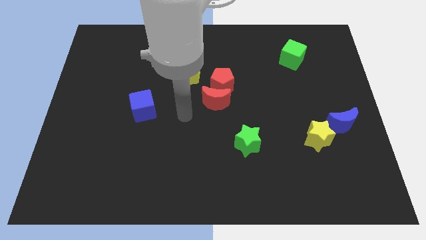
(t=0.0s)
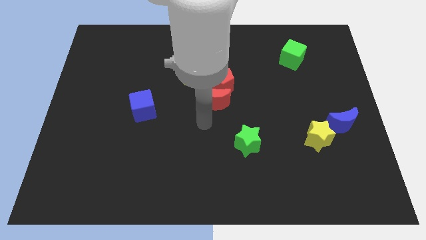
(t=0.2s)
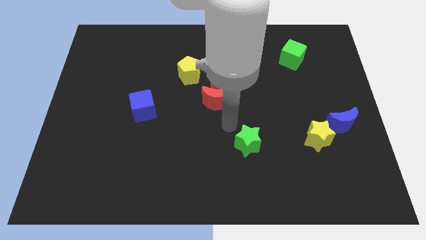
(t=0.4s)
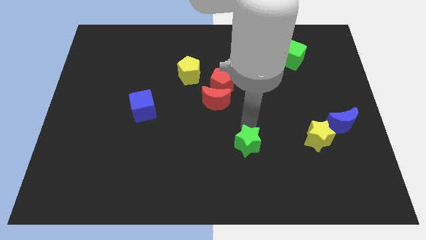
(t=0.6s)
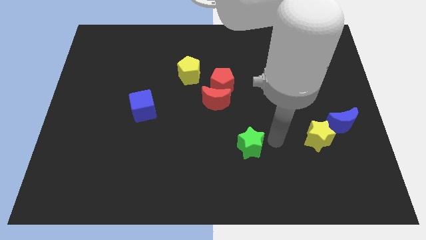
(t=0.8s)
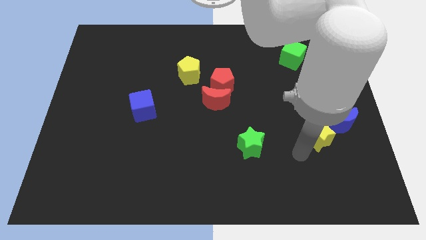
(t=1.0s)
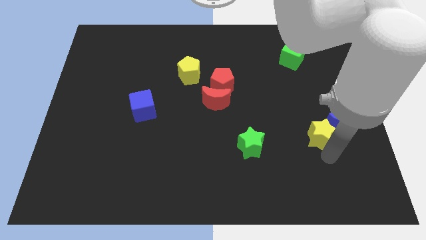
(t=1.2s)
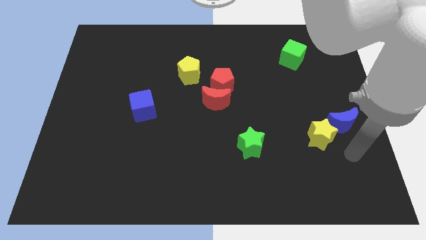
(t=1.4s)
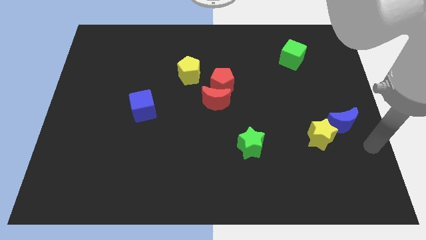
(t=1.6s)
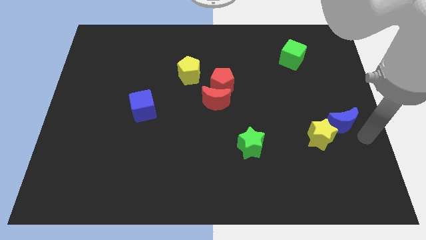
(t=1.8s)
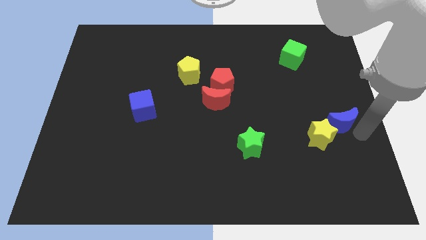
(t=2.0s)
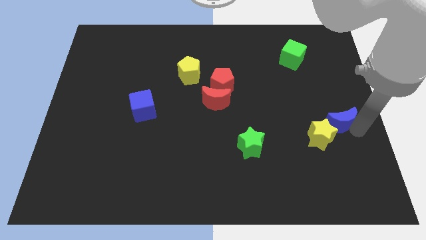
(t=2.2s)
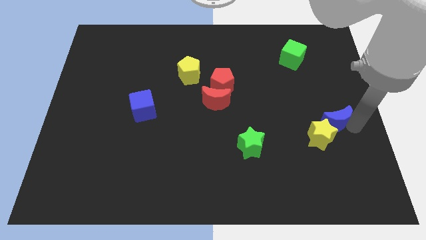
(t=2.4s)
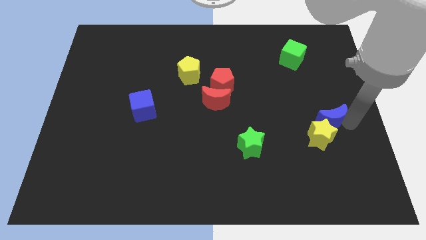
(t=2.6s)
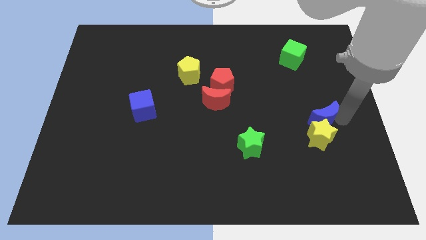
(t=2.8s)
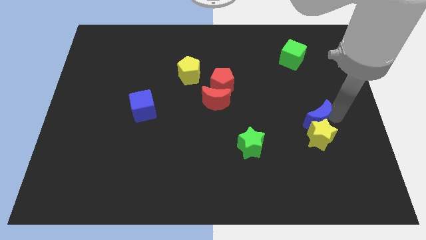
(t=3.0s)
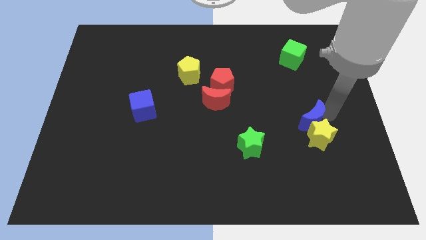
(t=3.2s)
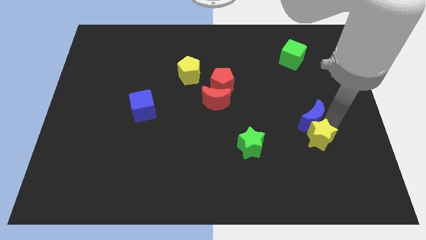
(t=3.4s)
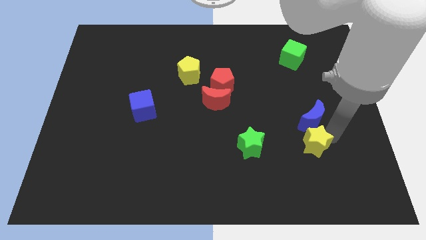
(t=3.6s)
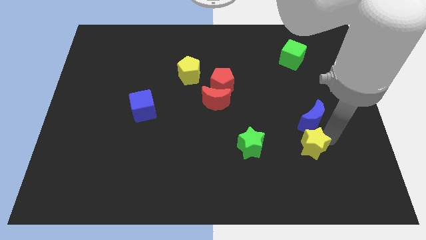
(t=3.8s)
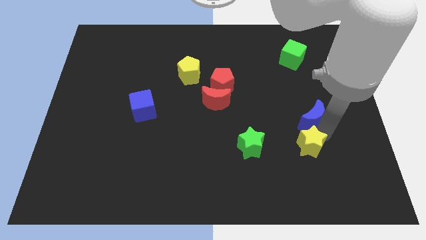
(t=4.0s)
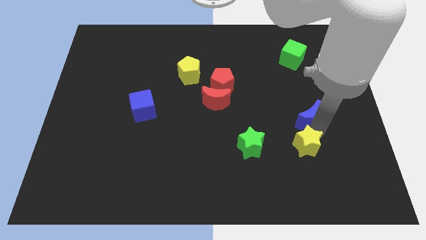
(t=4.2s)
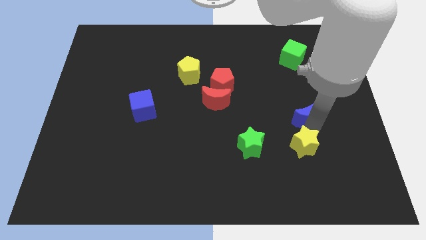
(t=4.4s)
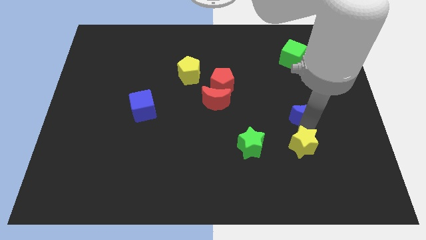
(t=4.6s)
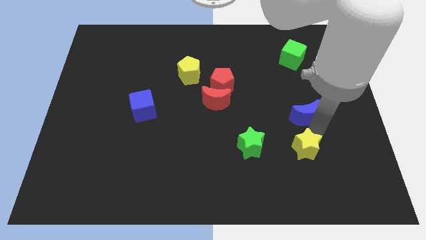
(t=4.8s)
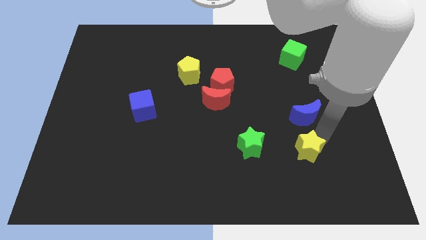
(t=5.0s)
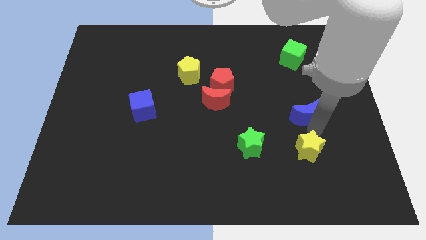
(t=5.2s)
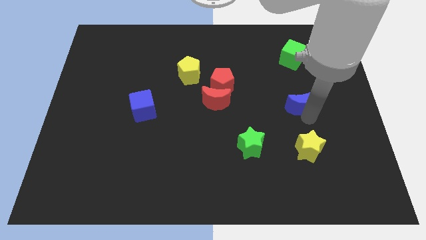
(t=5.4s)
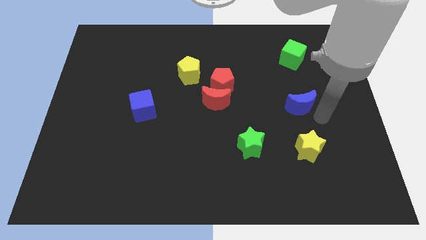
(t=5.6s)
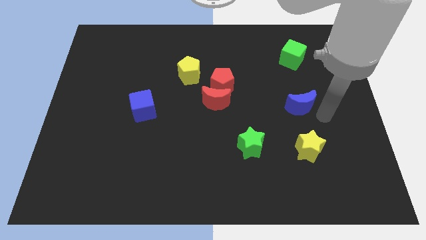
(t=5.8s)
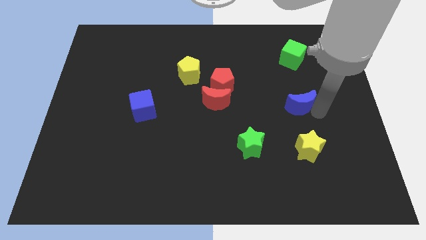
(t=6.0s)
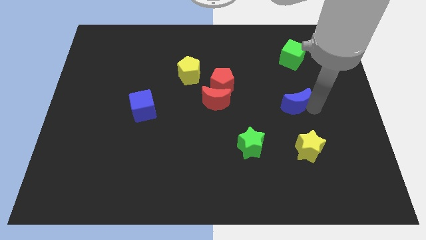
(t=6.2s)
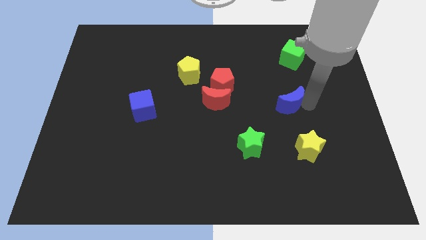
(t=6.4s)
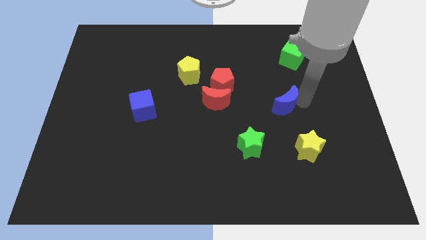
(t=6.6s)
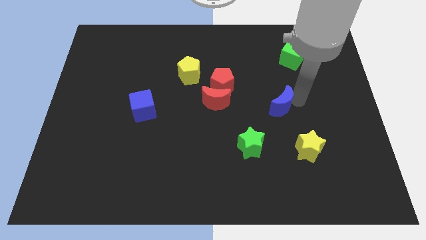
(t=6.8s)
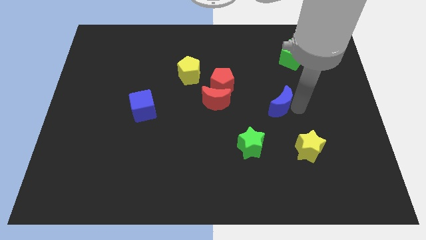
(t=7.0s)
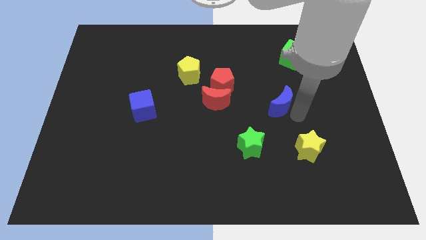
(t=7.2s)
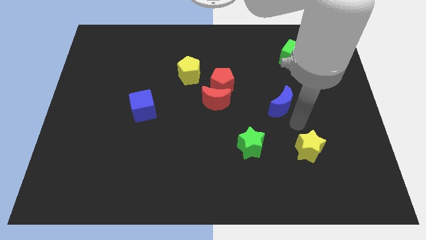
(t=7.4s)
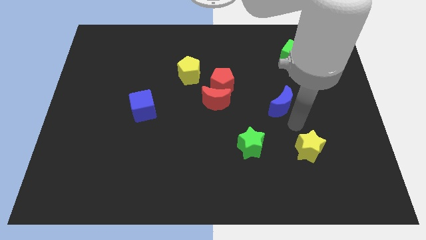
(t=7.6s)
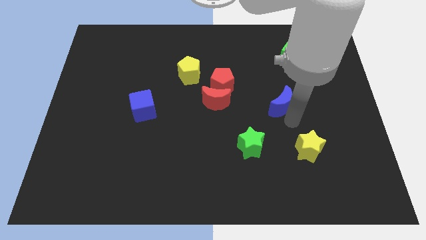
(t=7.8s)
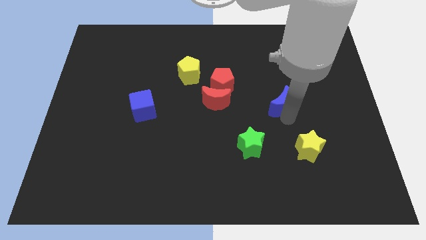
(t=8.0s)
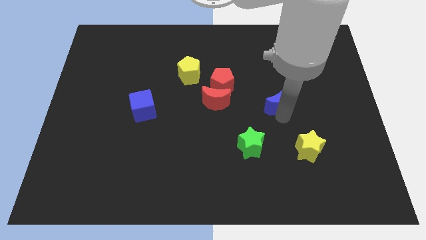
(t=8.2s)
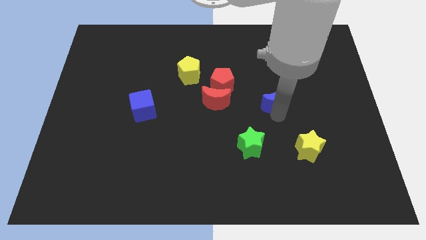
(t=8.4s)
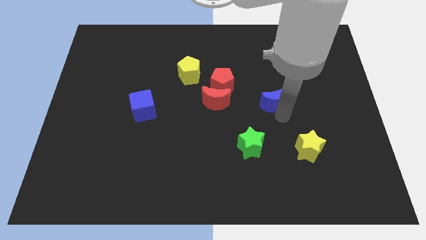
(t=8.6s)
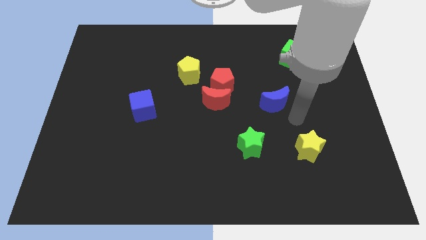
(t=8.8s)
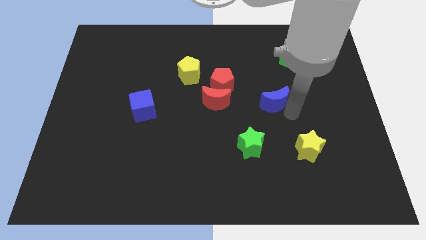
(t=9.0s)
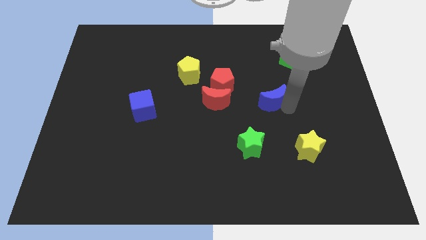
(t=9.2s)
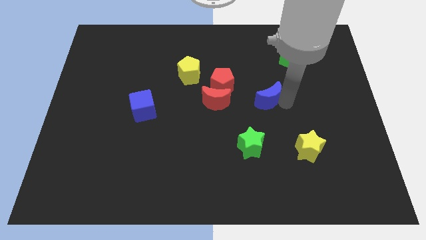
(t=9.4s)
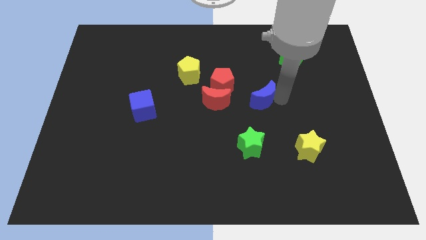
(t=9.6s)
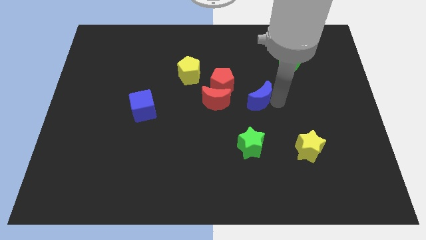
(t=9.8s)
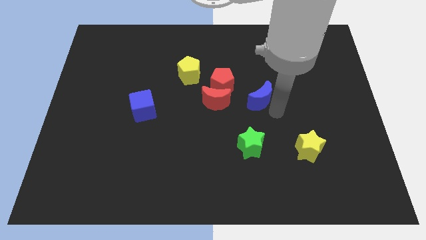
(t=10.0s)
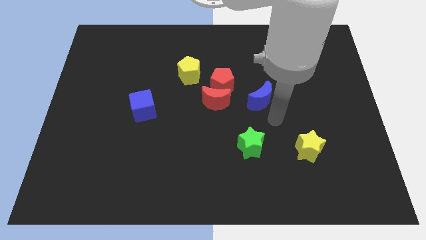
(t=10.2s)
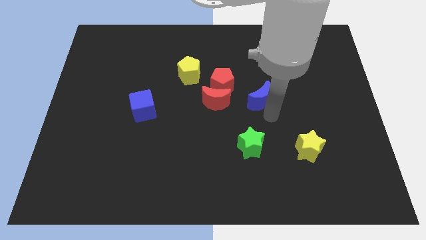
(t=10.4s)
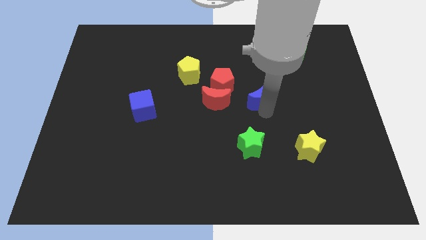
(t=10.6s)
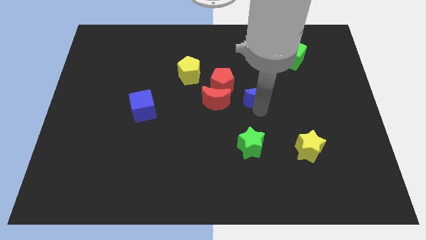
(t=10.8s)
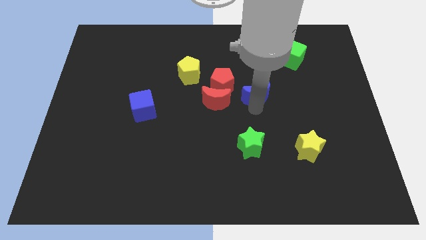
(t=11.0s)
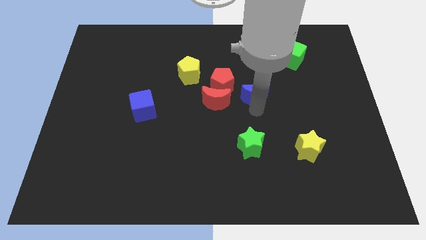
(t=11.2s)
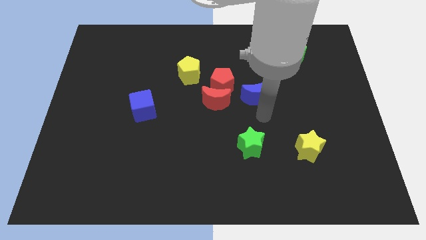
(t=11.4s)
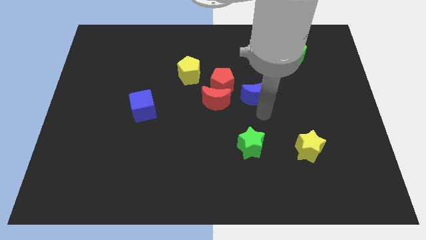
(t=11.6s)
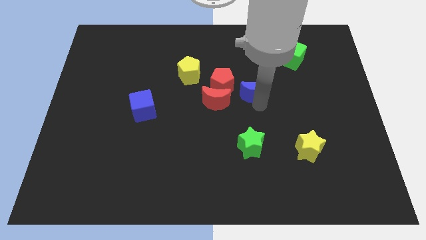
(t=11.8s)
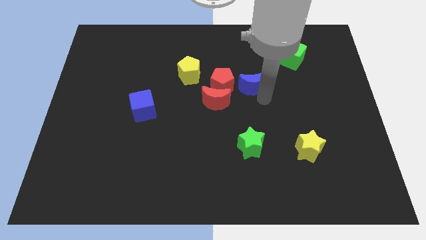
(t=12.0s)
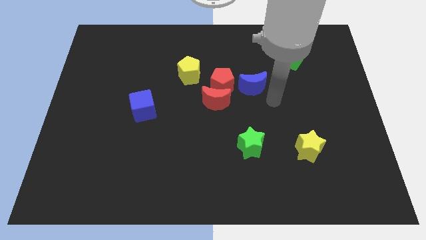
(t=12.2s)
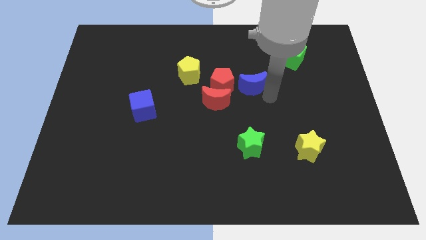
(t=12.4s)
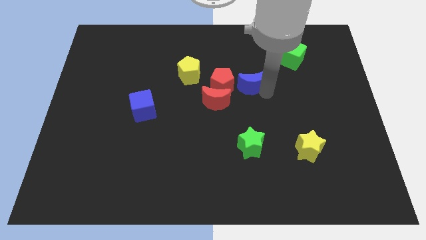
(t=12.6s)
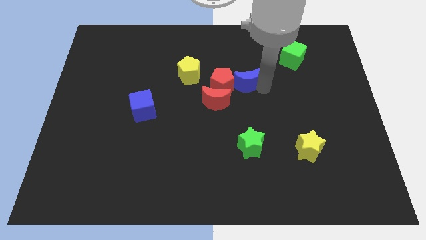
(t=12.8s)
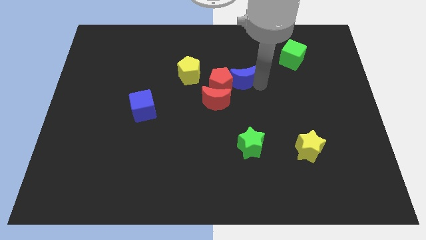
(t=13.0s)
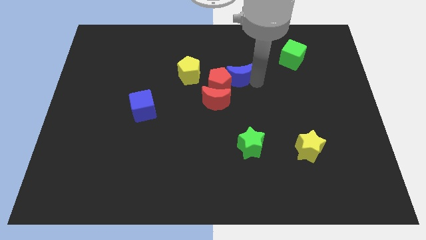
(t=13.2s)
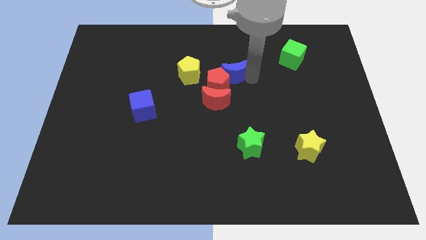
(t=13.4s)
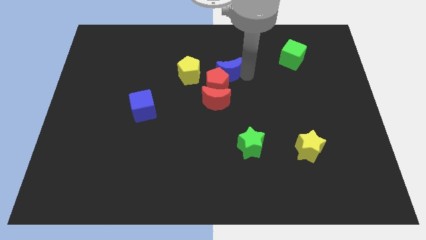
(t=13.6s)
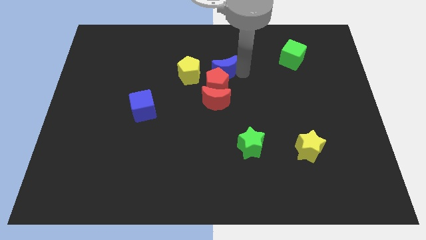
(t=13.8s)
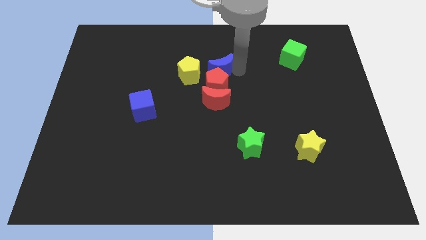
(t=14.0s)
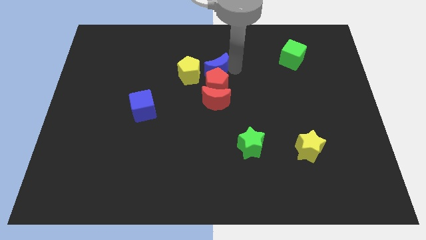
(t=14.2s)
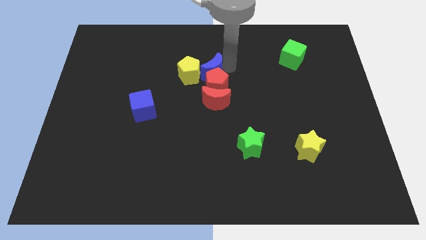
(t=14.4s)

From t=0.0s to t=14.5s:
put the blue moon close to the yellow pentagon

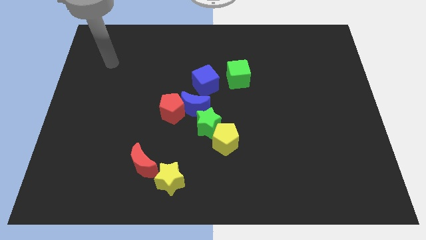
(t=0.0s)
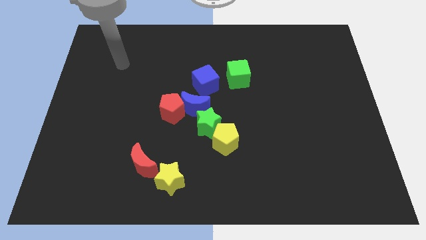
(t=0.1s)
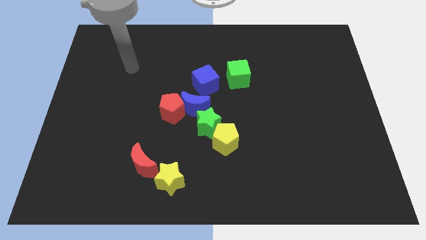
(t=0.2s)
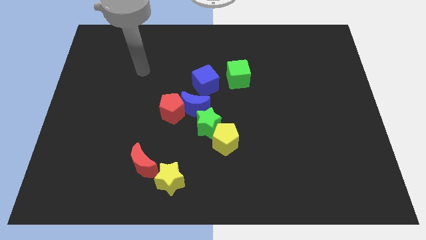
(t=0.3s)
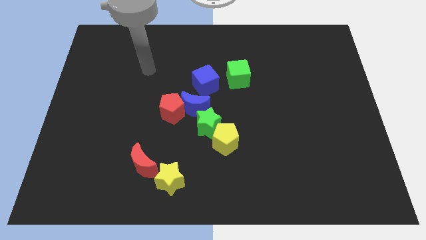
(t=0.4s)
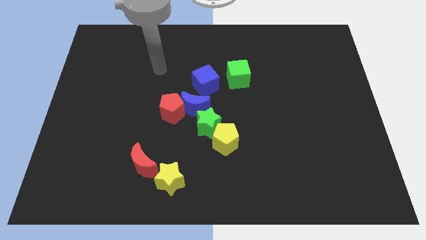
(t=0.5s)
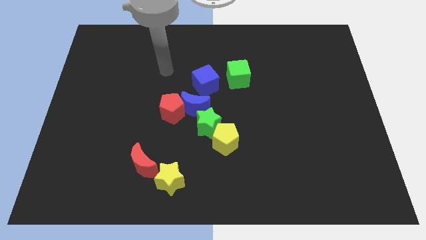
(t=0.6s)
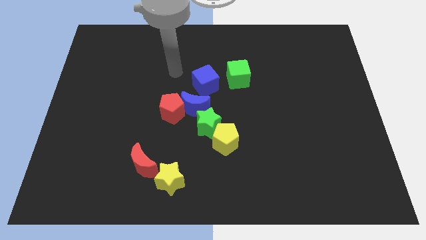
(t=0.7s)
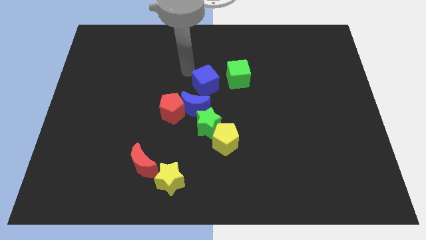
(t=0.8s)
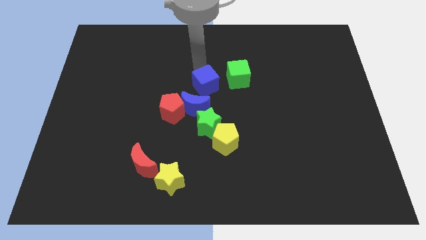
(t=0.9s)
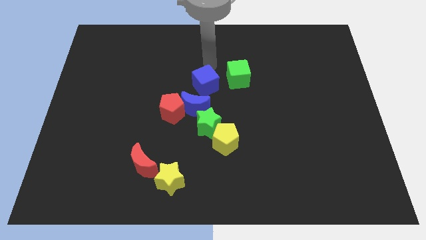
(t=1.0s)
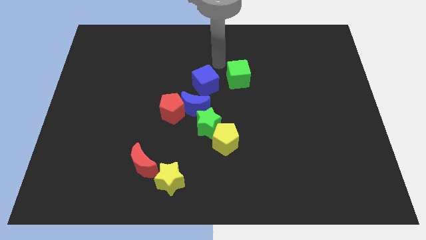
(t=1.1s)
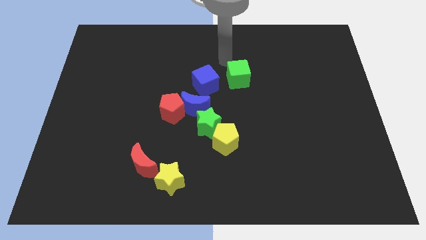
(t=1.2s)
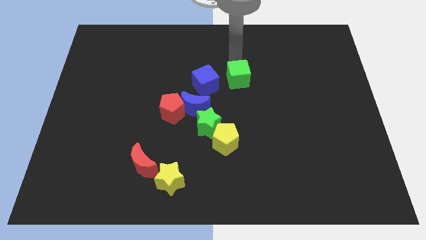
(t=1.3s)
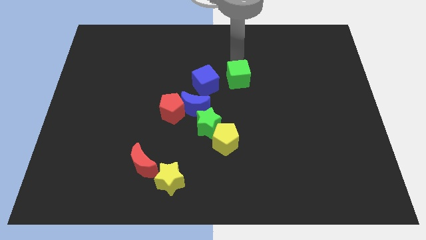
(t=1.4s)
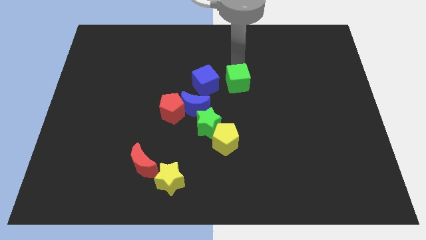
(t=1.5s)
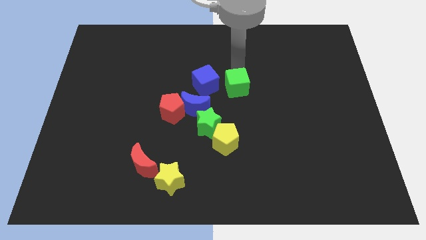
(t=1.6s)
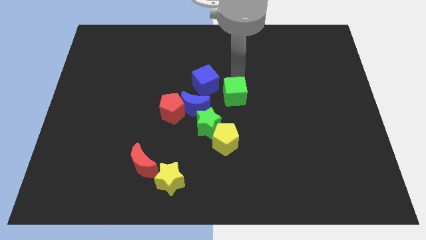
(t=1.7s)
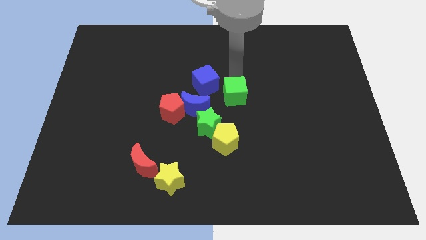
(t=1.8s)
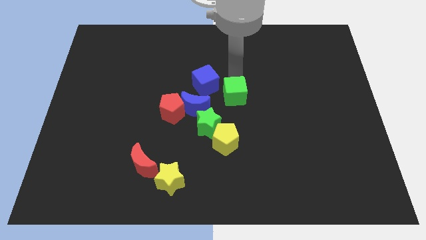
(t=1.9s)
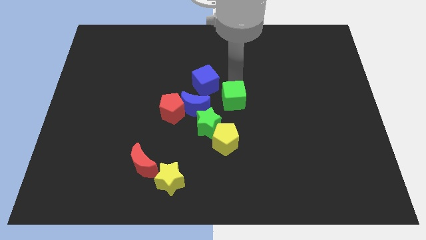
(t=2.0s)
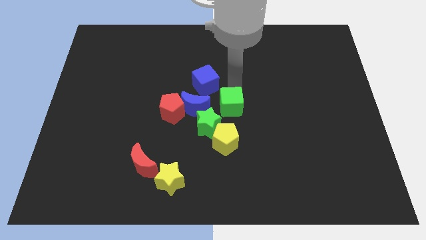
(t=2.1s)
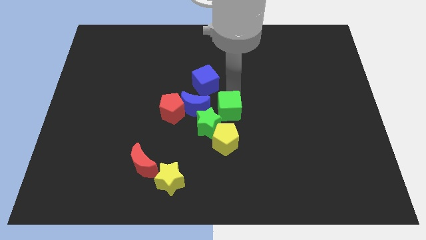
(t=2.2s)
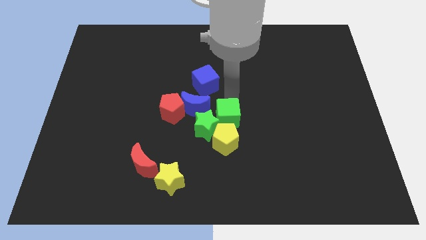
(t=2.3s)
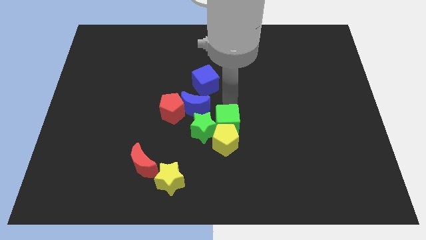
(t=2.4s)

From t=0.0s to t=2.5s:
push the green cube next to the yellow pentagon
